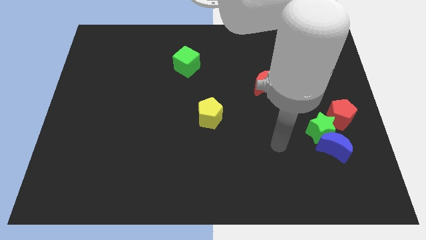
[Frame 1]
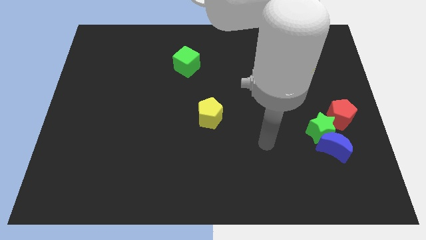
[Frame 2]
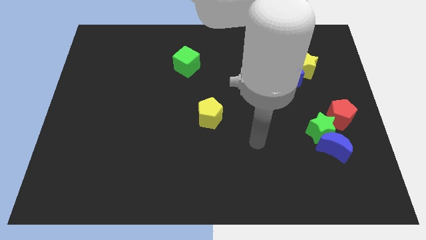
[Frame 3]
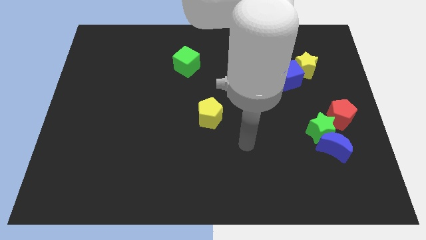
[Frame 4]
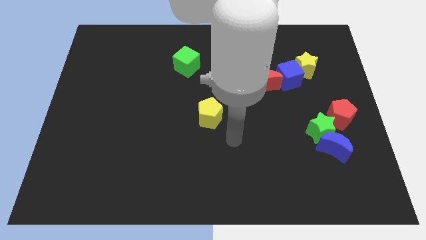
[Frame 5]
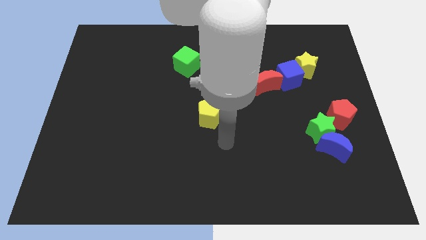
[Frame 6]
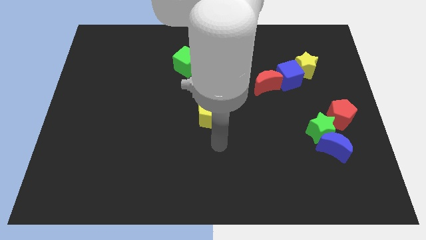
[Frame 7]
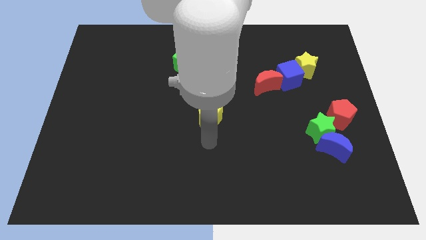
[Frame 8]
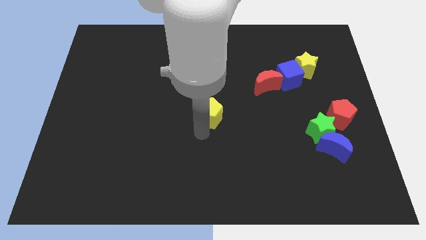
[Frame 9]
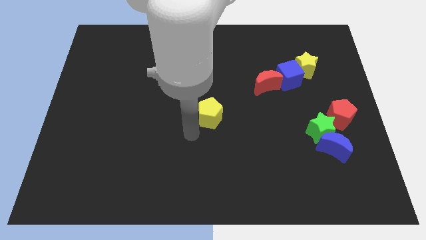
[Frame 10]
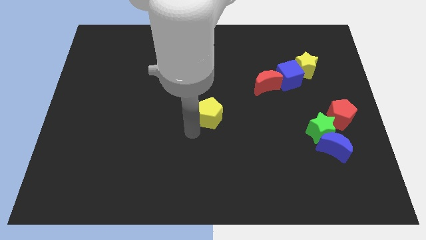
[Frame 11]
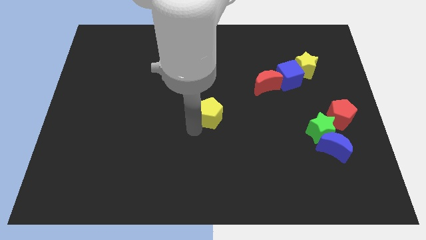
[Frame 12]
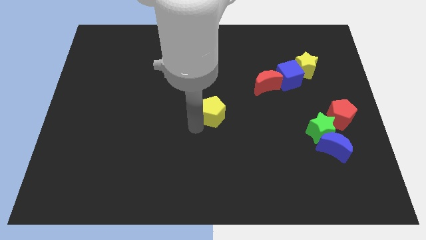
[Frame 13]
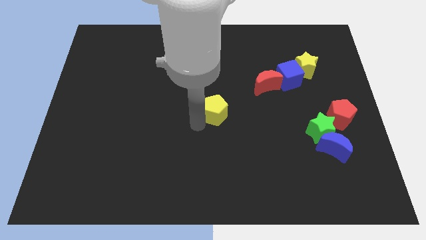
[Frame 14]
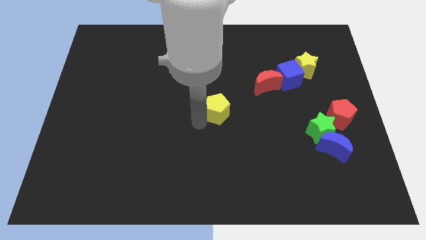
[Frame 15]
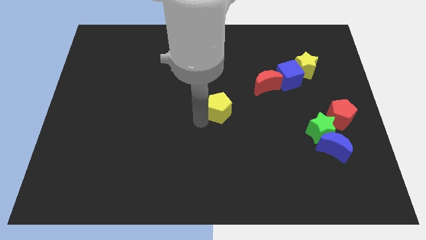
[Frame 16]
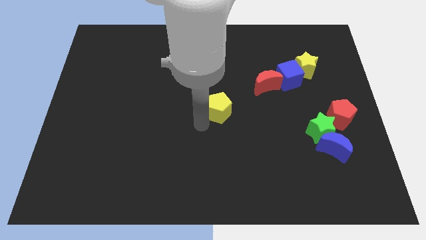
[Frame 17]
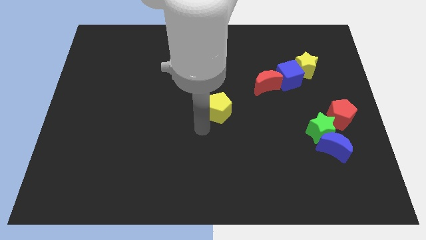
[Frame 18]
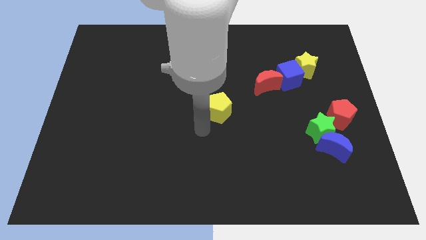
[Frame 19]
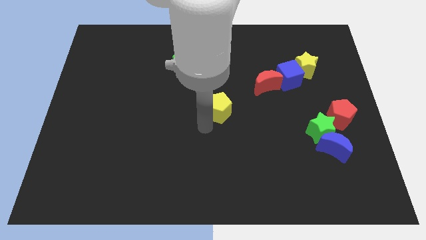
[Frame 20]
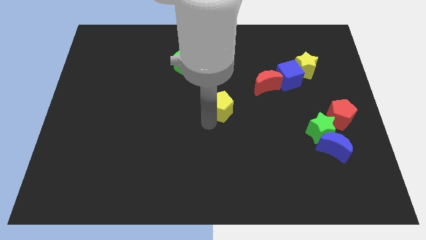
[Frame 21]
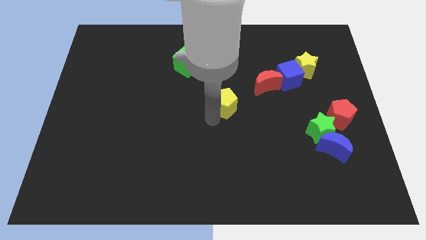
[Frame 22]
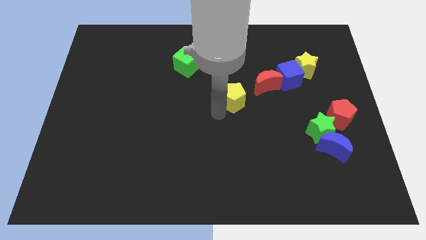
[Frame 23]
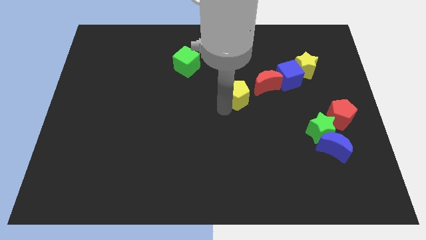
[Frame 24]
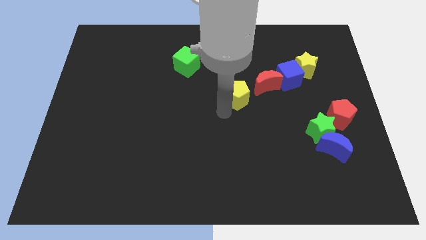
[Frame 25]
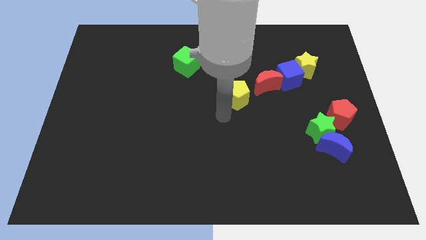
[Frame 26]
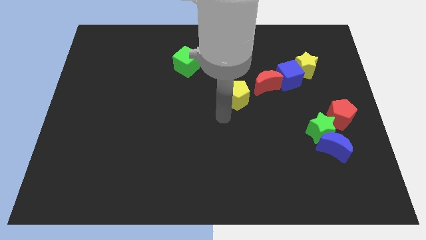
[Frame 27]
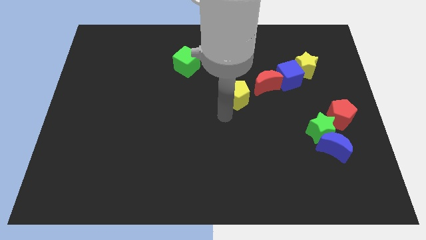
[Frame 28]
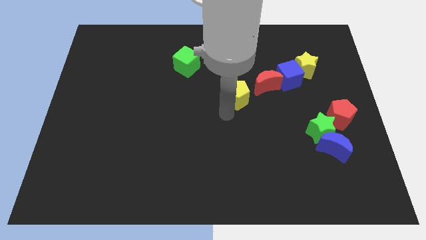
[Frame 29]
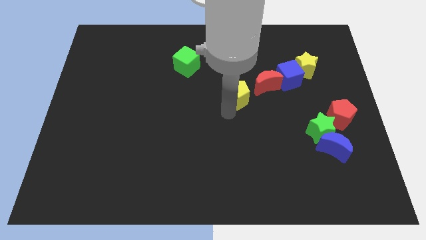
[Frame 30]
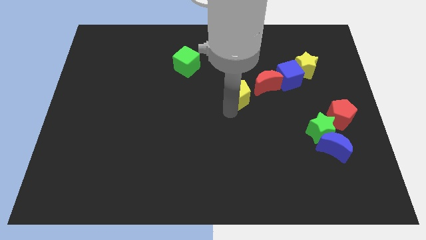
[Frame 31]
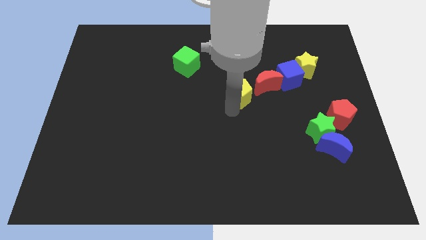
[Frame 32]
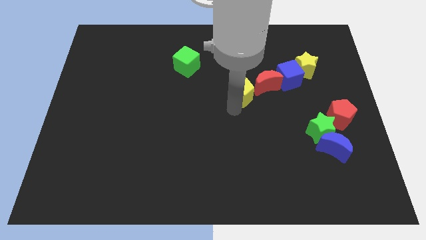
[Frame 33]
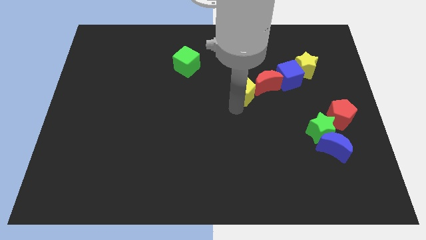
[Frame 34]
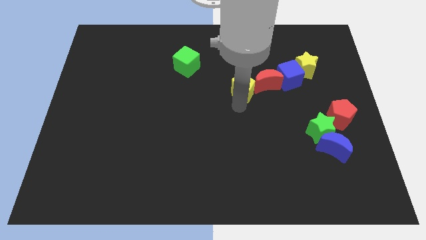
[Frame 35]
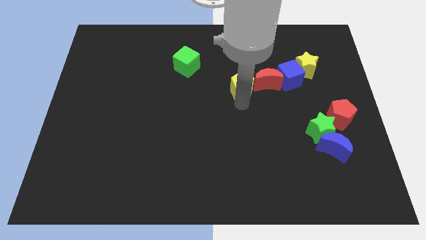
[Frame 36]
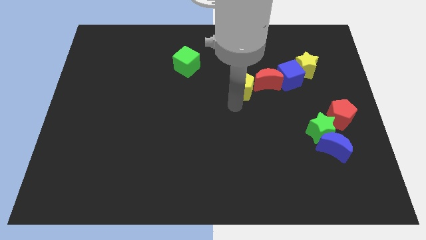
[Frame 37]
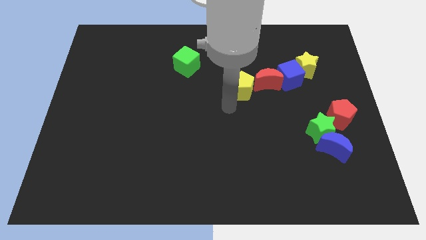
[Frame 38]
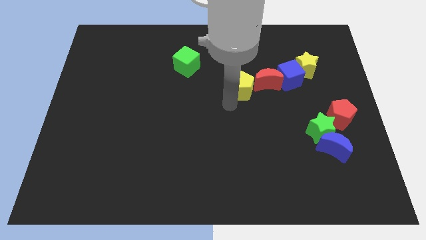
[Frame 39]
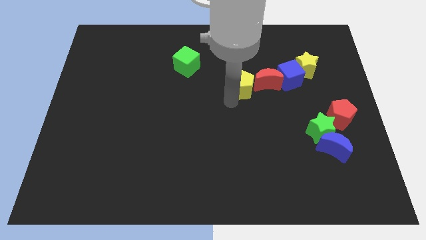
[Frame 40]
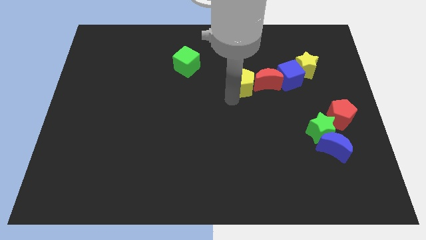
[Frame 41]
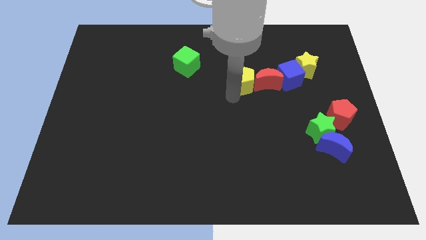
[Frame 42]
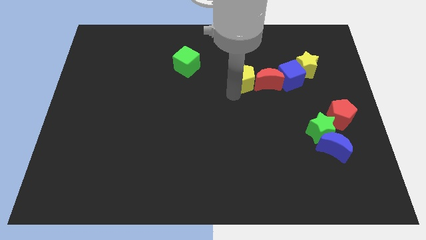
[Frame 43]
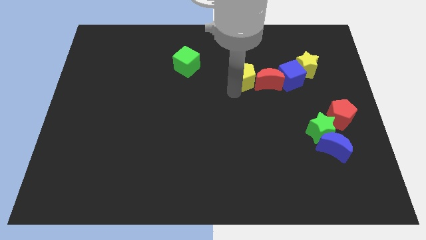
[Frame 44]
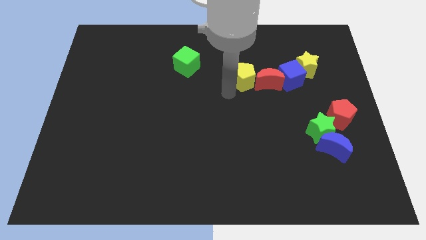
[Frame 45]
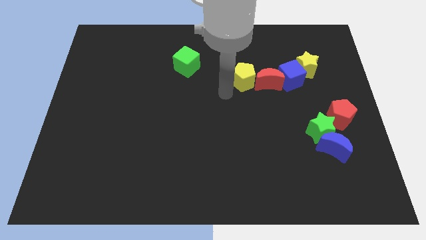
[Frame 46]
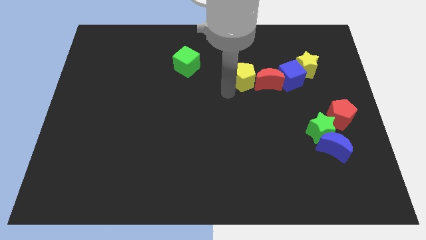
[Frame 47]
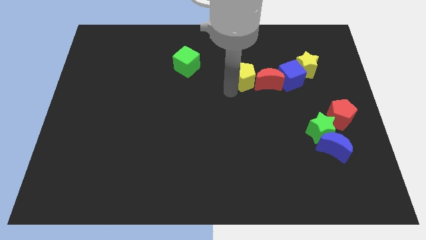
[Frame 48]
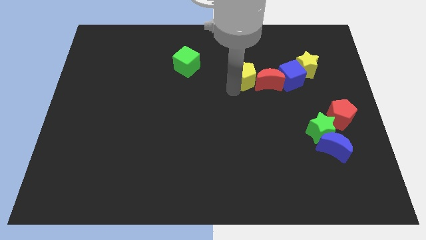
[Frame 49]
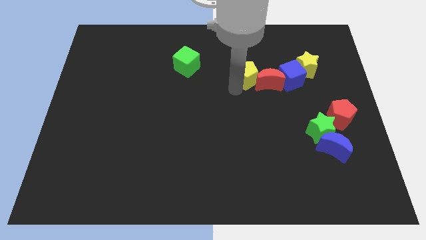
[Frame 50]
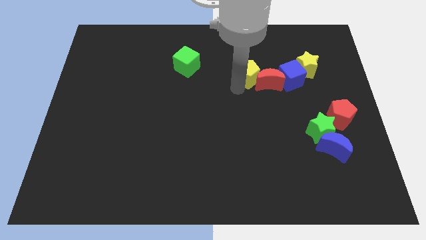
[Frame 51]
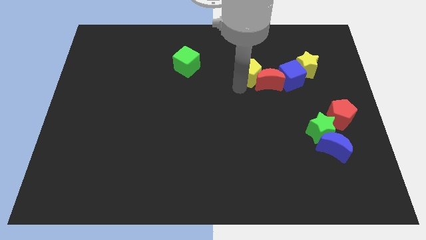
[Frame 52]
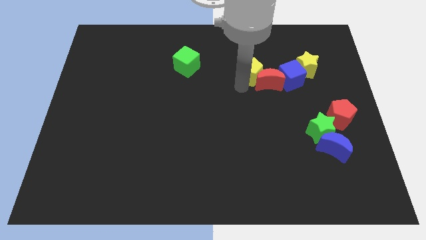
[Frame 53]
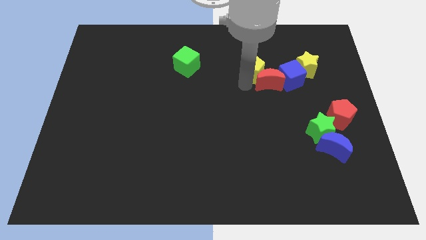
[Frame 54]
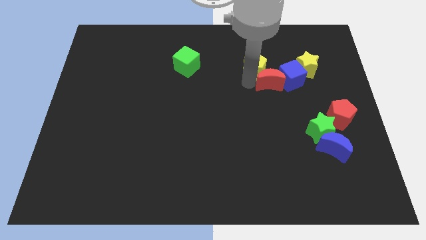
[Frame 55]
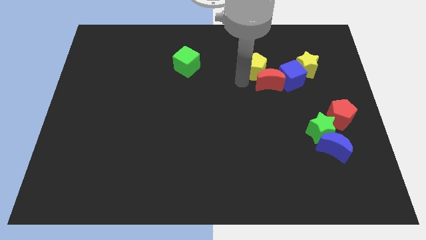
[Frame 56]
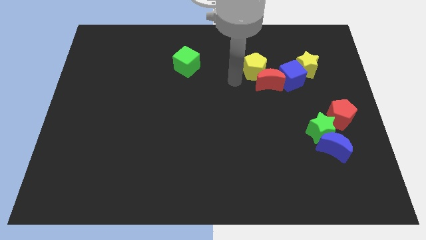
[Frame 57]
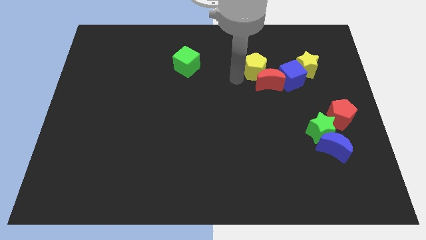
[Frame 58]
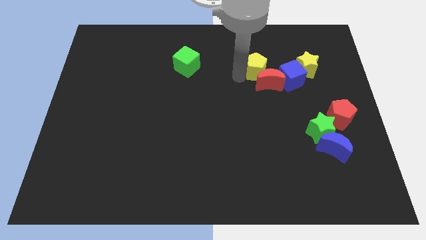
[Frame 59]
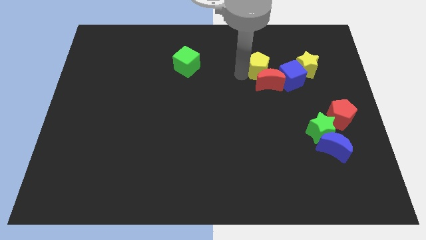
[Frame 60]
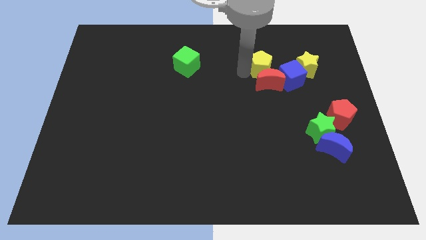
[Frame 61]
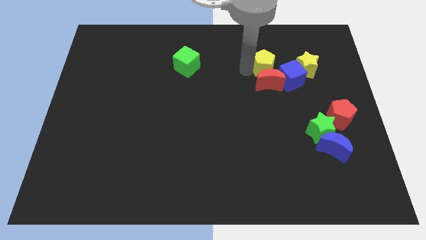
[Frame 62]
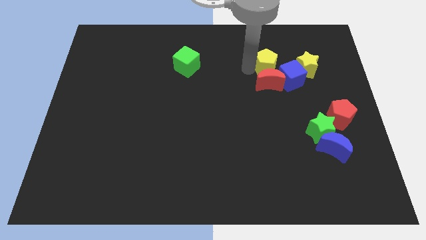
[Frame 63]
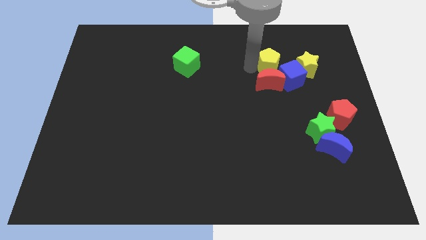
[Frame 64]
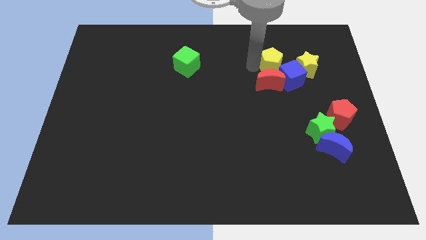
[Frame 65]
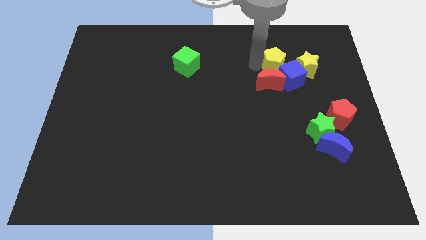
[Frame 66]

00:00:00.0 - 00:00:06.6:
push the yellow pentagon to the top left of the yellow star
